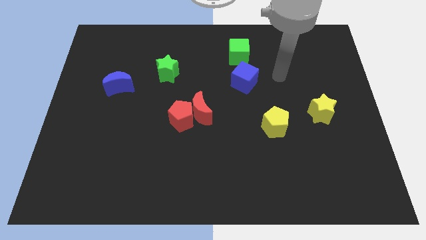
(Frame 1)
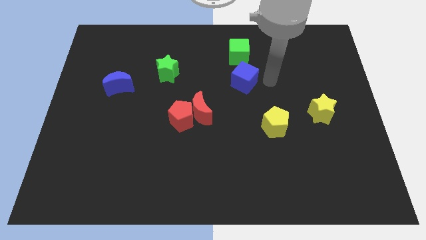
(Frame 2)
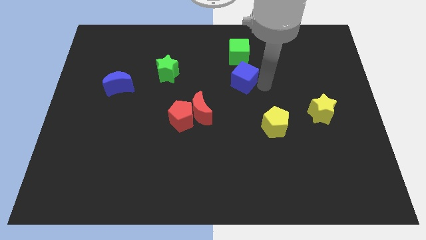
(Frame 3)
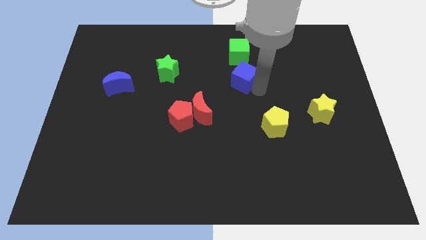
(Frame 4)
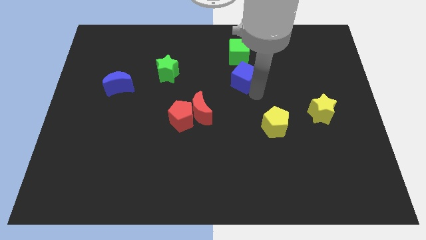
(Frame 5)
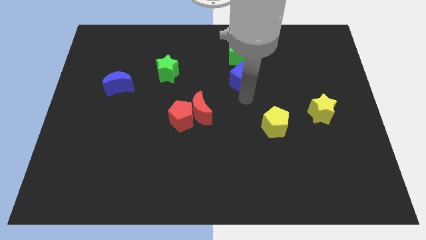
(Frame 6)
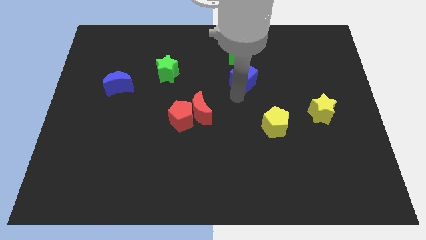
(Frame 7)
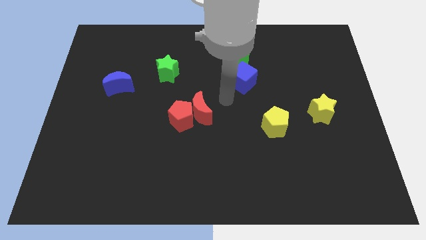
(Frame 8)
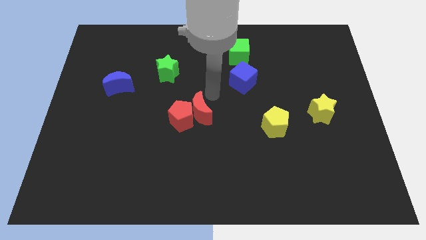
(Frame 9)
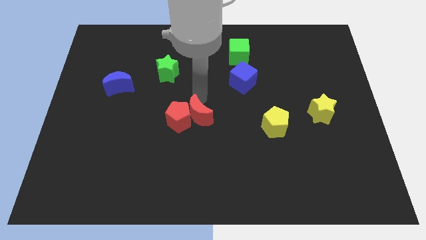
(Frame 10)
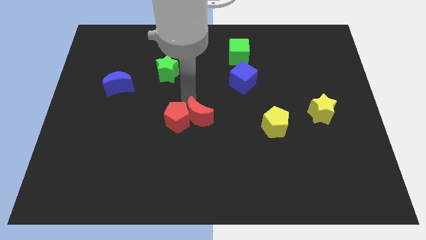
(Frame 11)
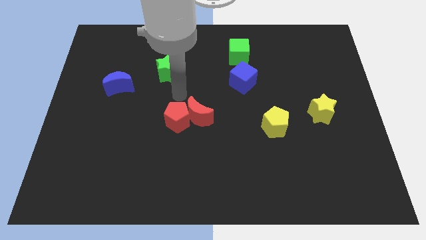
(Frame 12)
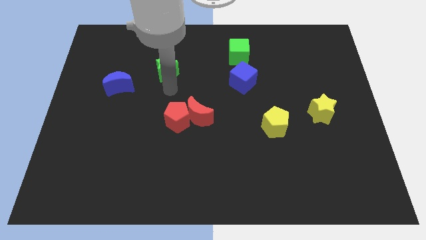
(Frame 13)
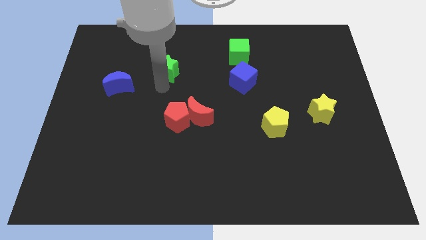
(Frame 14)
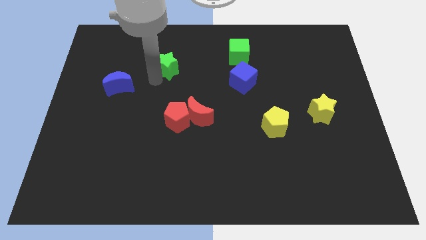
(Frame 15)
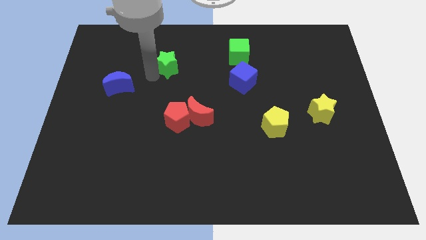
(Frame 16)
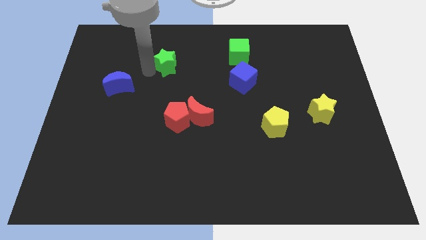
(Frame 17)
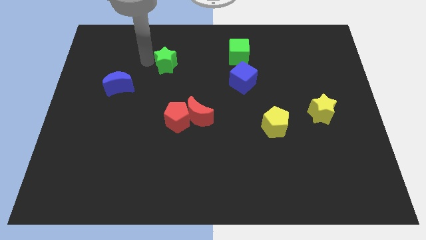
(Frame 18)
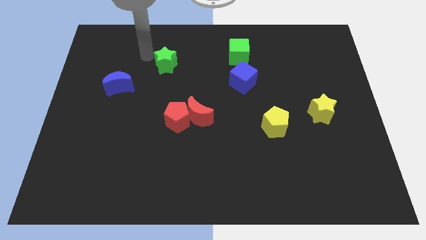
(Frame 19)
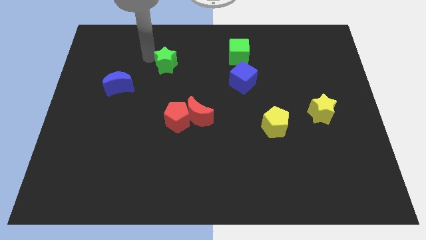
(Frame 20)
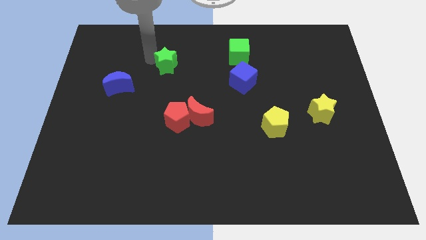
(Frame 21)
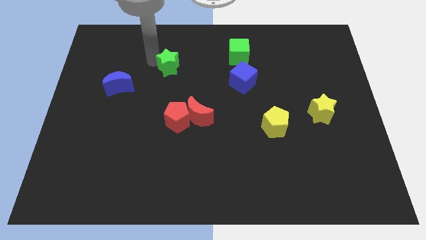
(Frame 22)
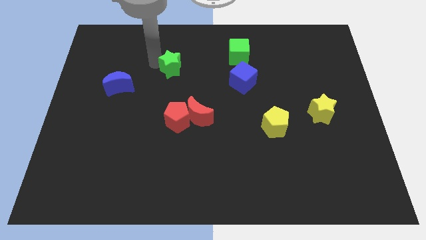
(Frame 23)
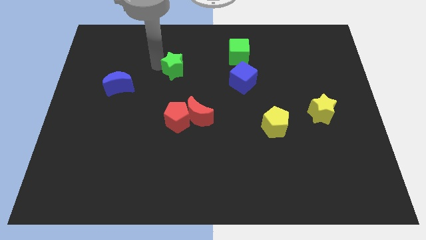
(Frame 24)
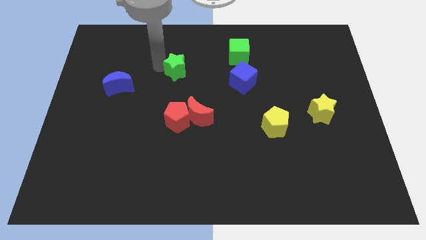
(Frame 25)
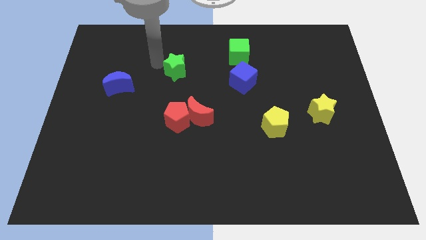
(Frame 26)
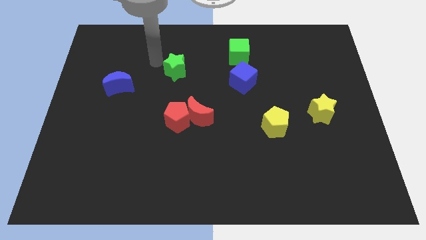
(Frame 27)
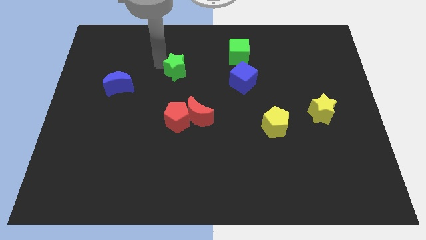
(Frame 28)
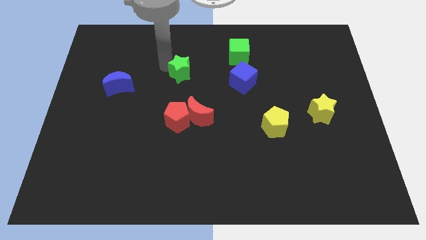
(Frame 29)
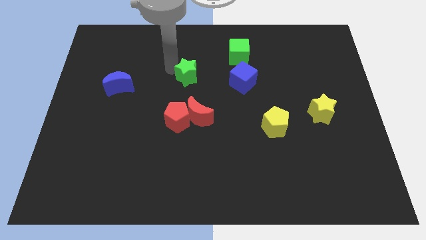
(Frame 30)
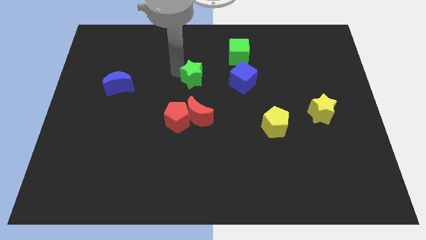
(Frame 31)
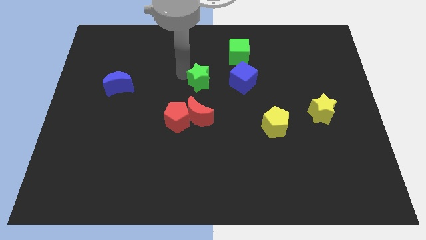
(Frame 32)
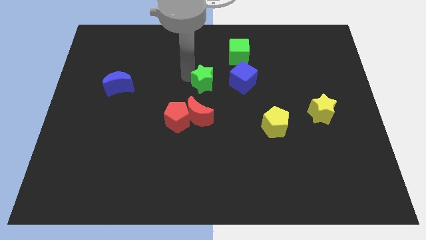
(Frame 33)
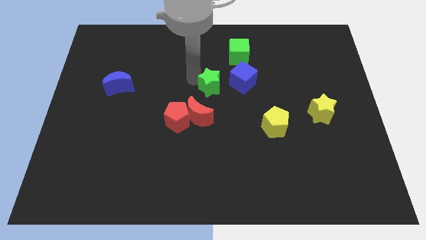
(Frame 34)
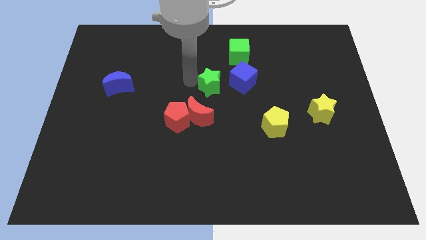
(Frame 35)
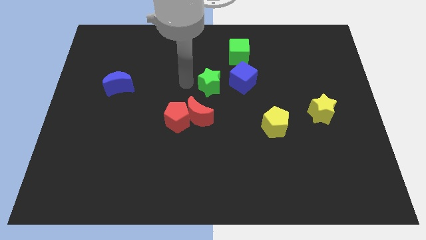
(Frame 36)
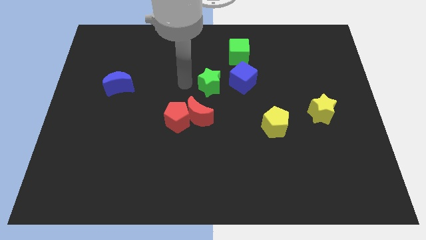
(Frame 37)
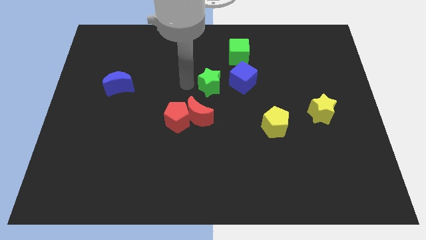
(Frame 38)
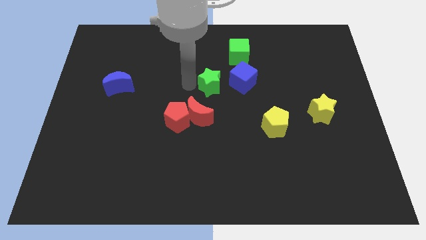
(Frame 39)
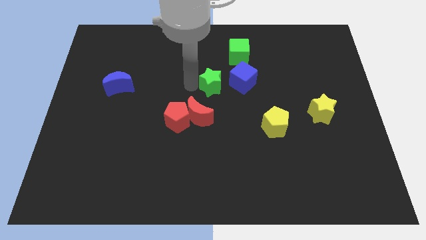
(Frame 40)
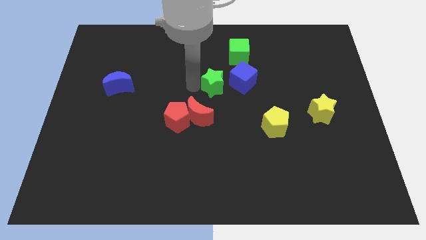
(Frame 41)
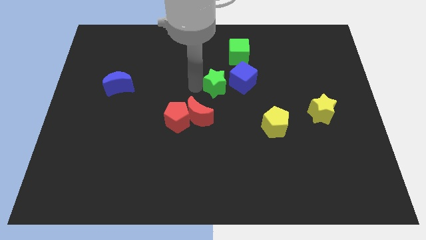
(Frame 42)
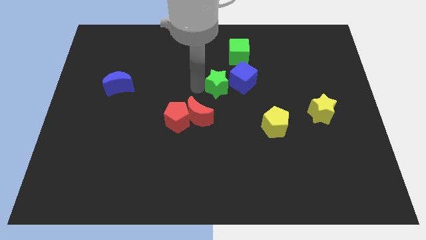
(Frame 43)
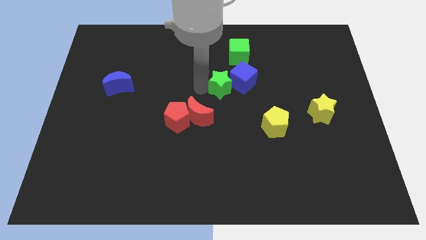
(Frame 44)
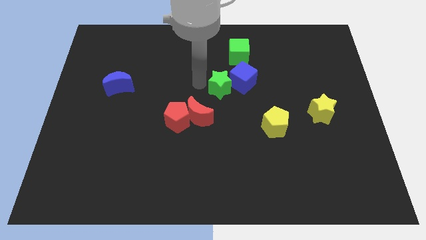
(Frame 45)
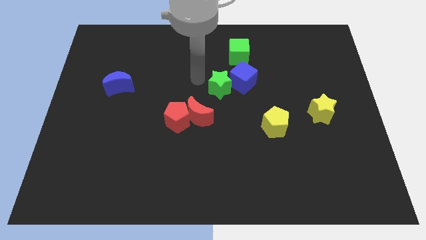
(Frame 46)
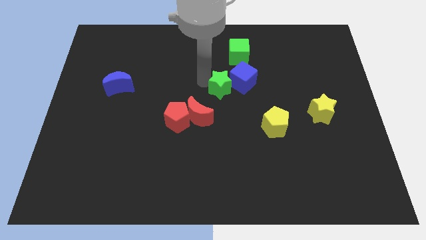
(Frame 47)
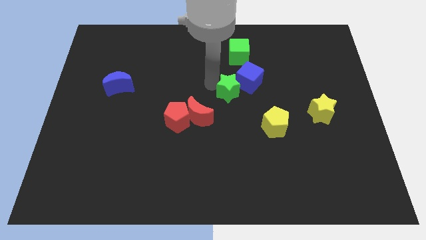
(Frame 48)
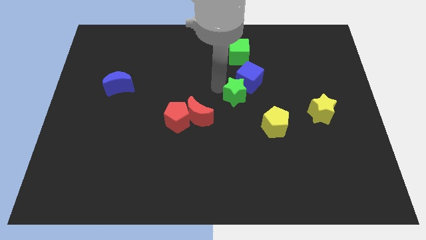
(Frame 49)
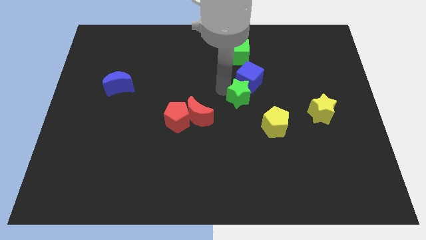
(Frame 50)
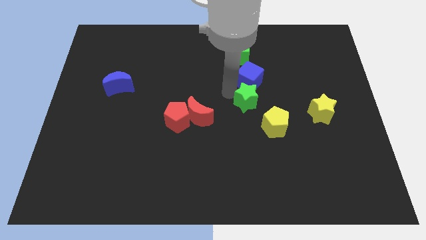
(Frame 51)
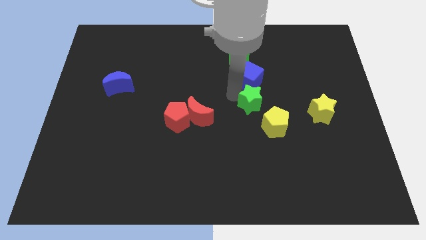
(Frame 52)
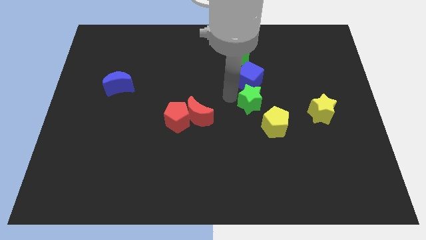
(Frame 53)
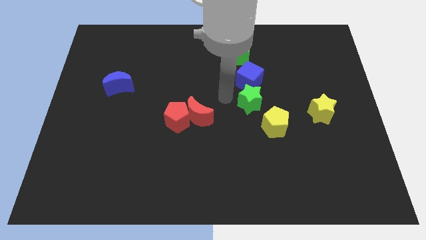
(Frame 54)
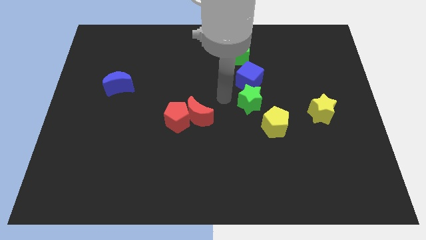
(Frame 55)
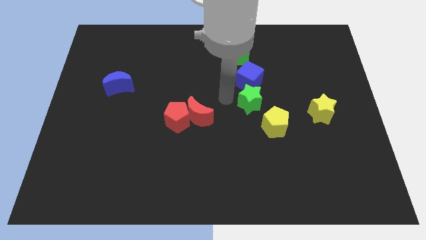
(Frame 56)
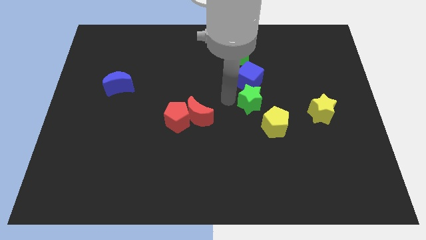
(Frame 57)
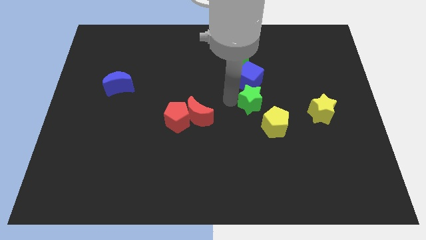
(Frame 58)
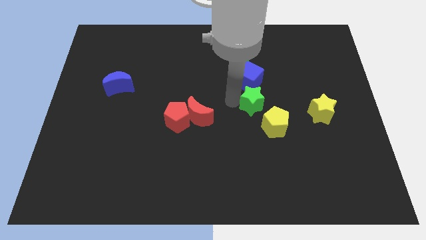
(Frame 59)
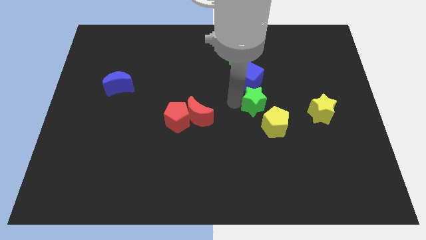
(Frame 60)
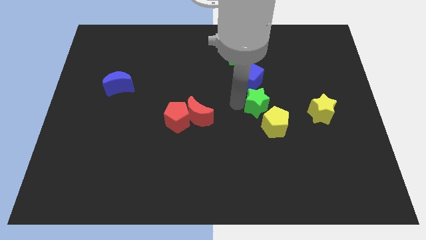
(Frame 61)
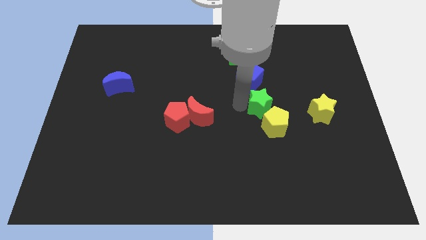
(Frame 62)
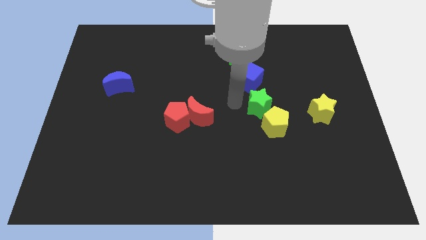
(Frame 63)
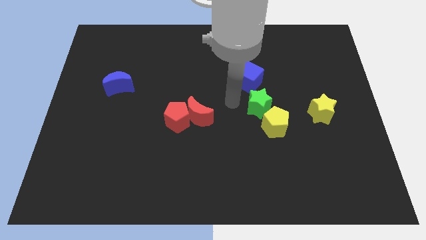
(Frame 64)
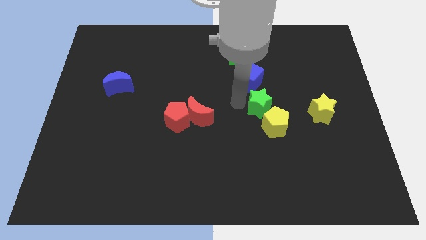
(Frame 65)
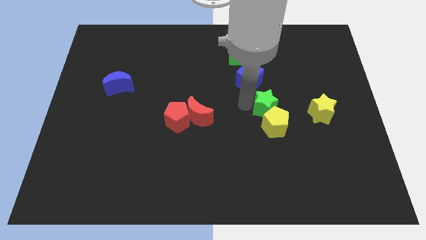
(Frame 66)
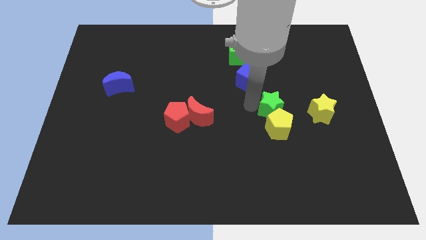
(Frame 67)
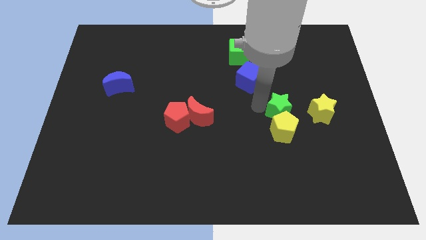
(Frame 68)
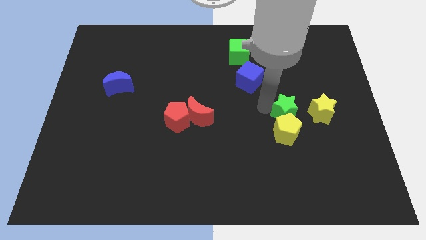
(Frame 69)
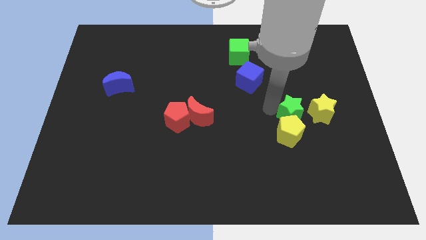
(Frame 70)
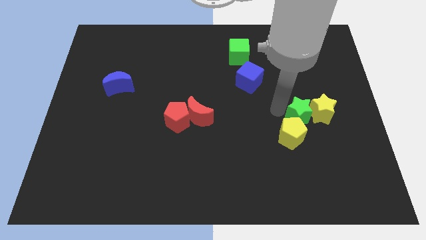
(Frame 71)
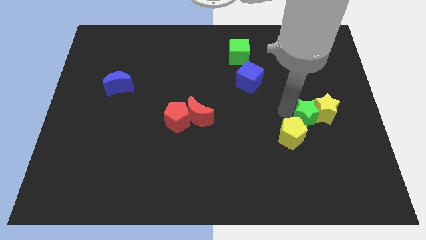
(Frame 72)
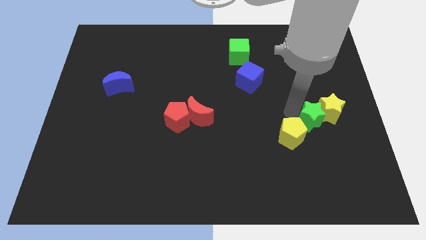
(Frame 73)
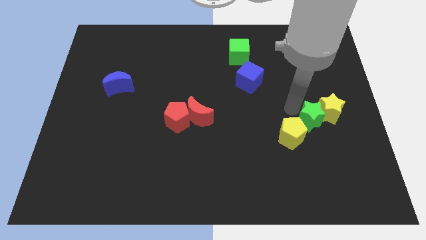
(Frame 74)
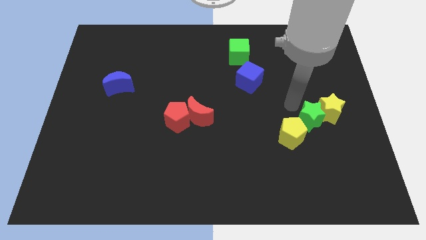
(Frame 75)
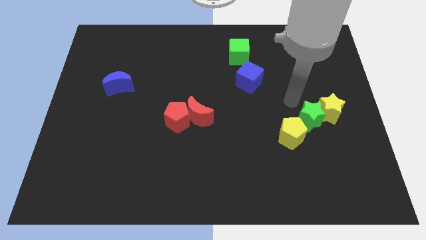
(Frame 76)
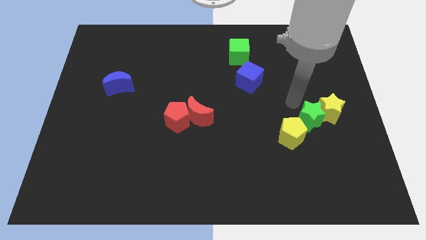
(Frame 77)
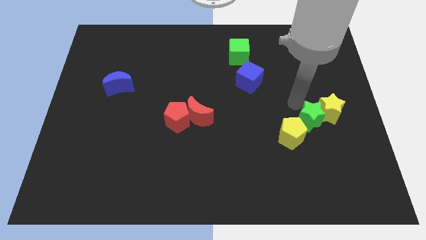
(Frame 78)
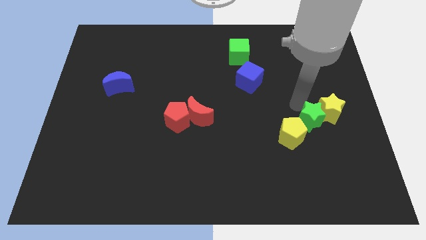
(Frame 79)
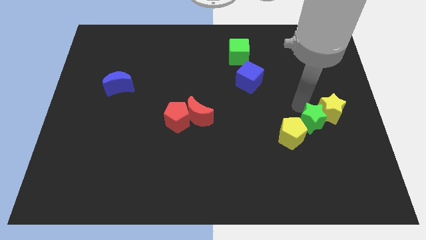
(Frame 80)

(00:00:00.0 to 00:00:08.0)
put the green star below the yellow star
